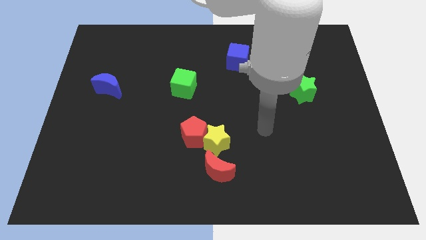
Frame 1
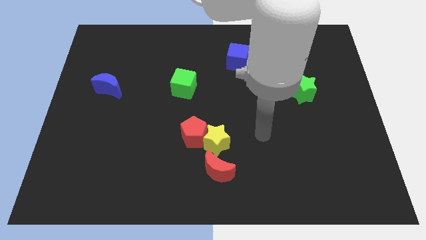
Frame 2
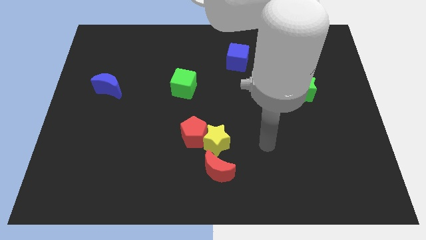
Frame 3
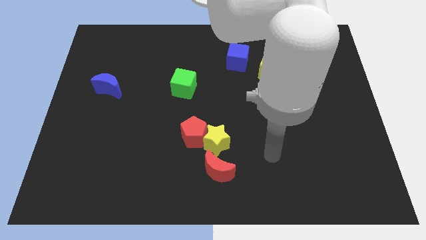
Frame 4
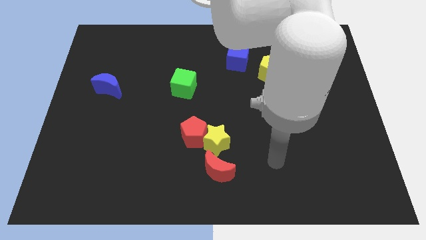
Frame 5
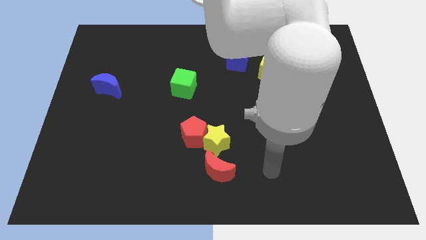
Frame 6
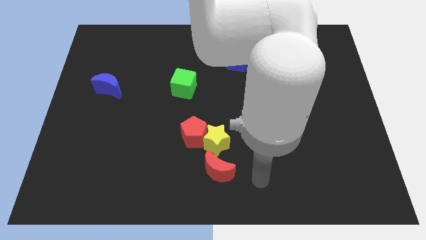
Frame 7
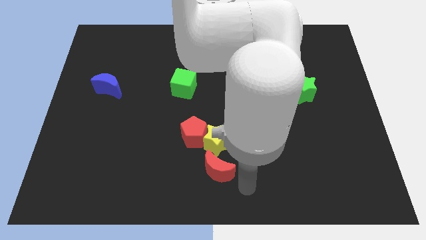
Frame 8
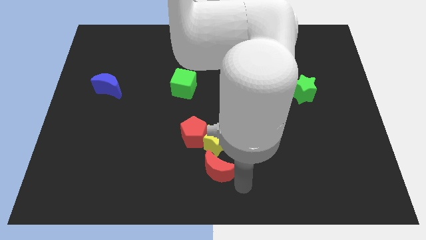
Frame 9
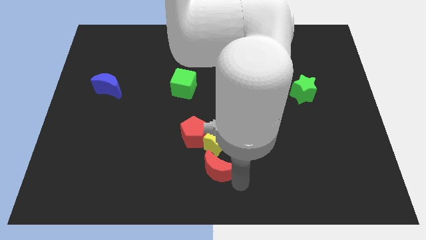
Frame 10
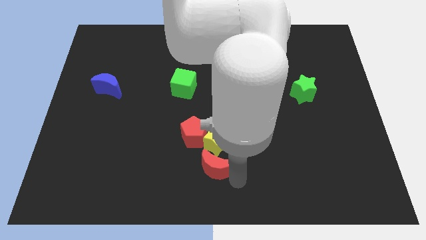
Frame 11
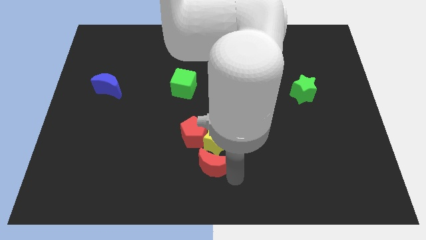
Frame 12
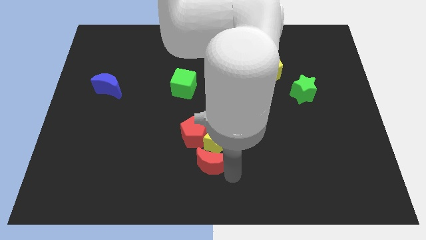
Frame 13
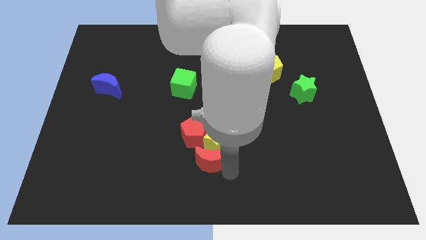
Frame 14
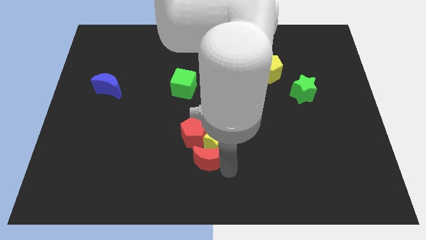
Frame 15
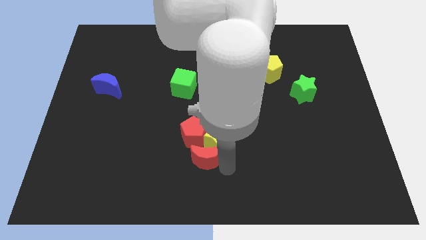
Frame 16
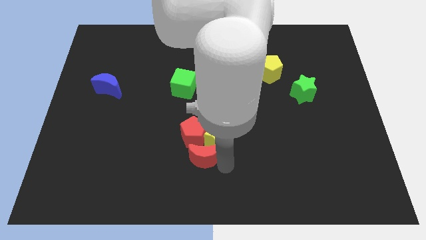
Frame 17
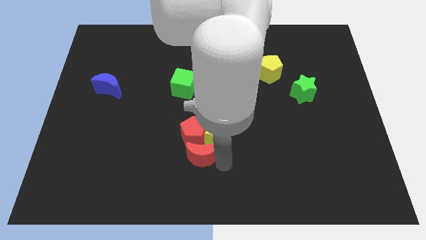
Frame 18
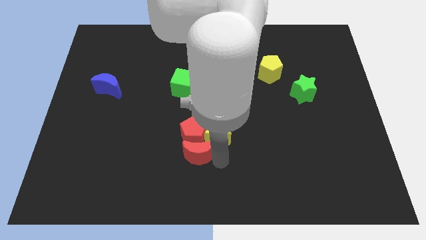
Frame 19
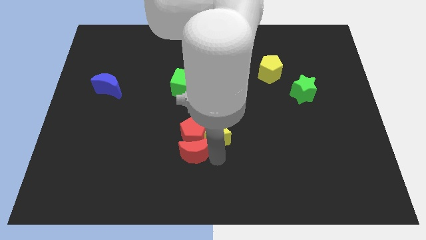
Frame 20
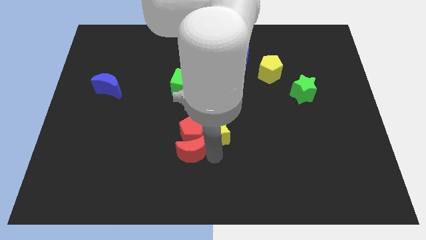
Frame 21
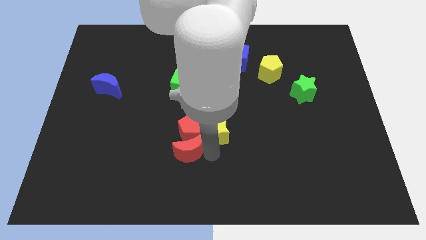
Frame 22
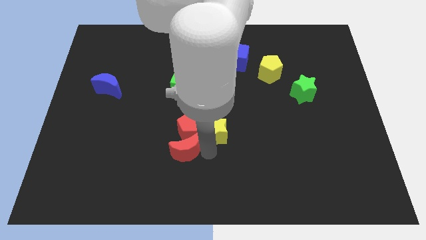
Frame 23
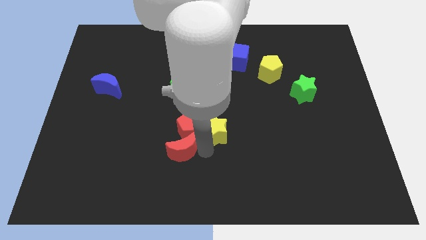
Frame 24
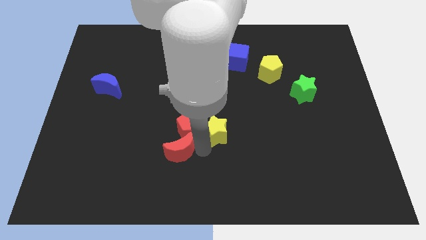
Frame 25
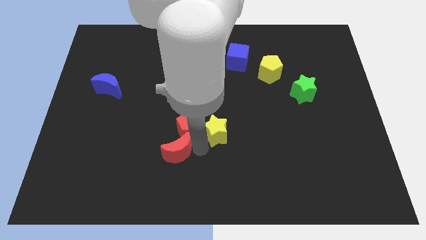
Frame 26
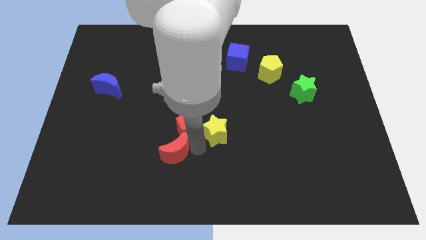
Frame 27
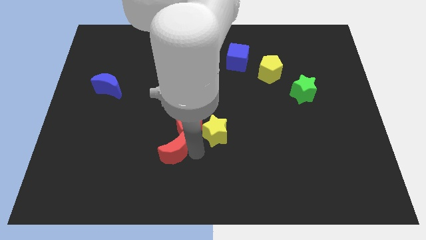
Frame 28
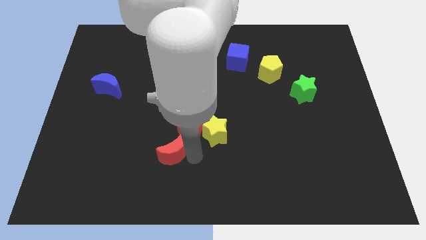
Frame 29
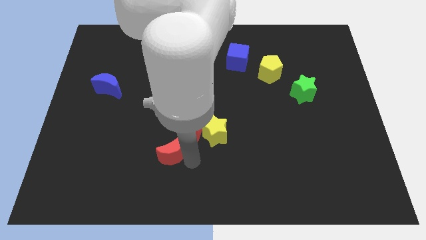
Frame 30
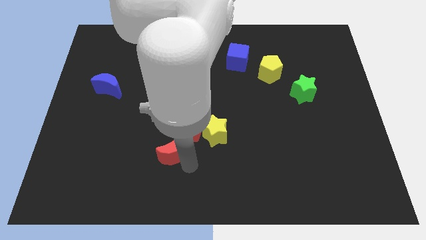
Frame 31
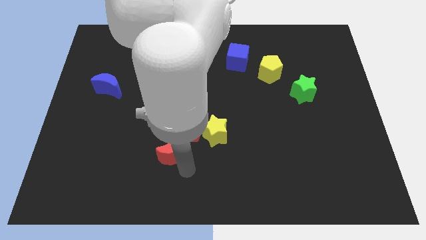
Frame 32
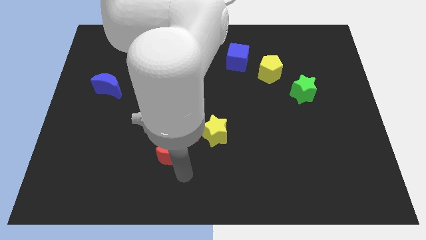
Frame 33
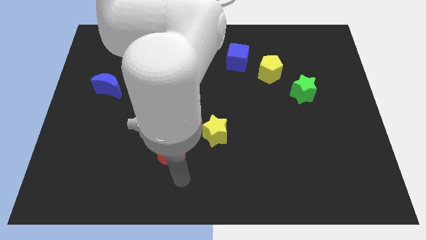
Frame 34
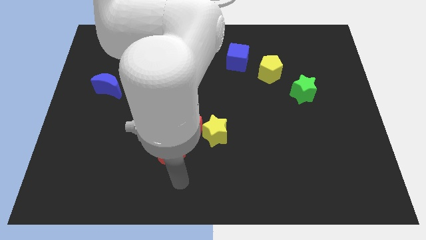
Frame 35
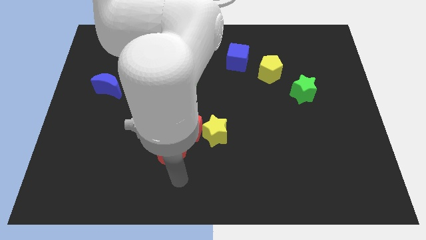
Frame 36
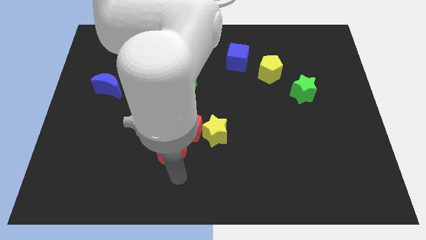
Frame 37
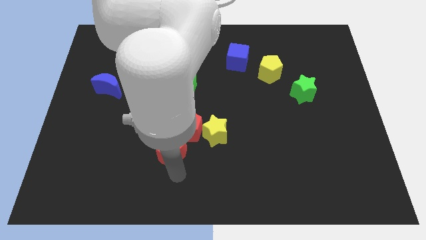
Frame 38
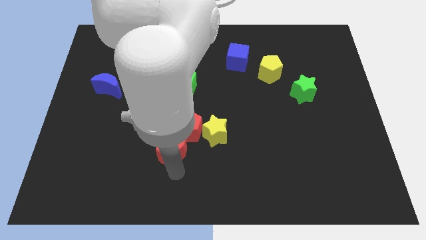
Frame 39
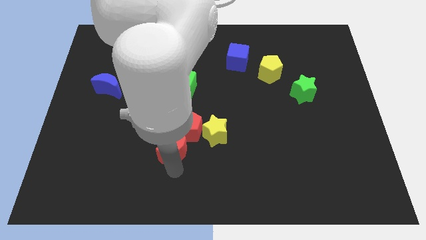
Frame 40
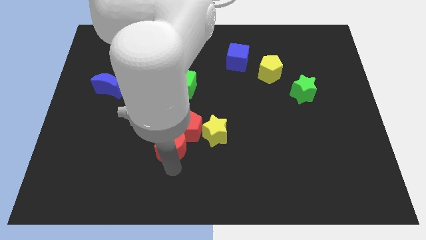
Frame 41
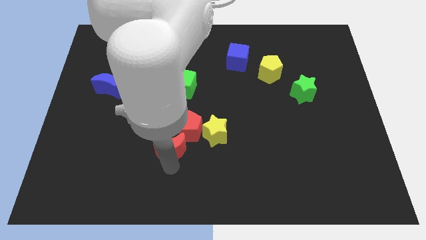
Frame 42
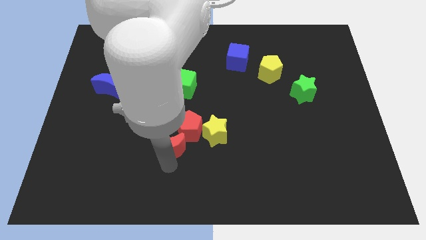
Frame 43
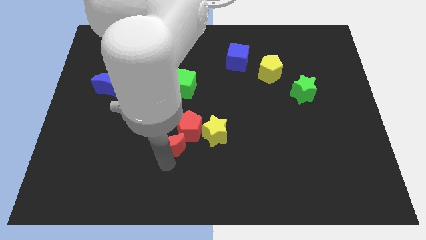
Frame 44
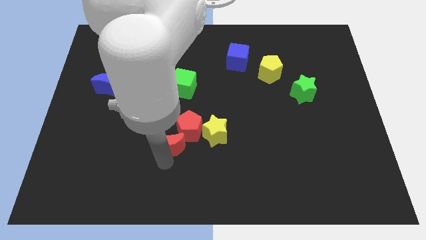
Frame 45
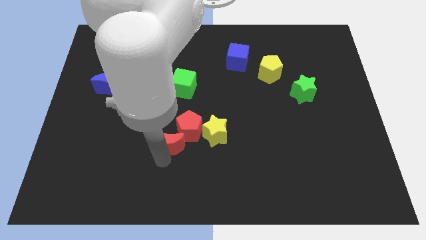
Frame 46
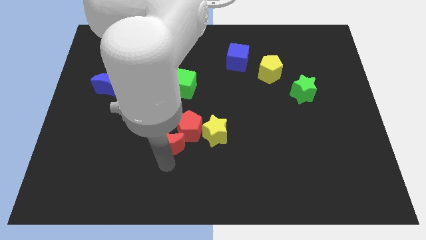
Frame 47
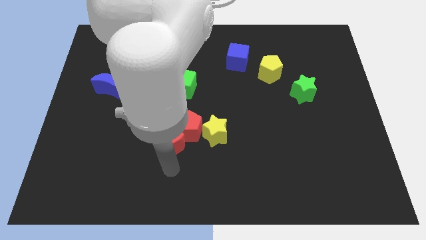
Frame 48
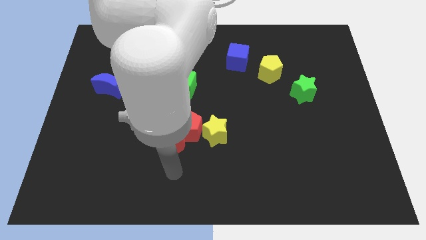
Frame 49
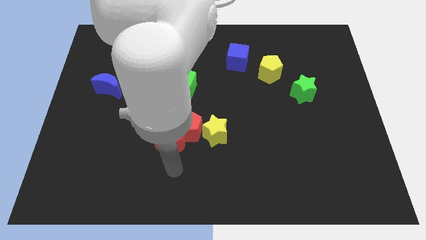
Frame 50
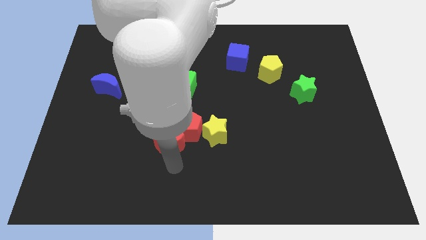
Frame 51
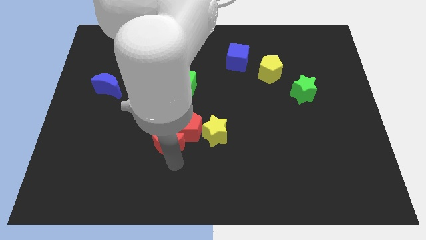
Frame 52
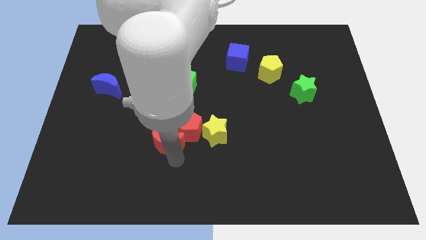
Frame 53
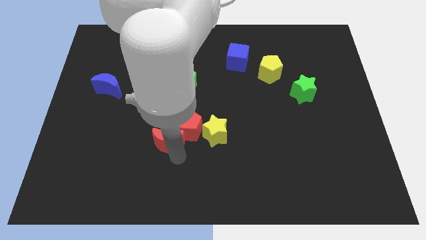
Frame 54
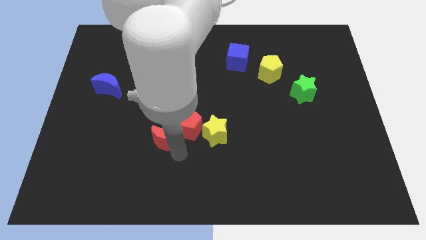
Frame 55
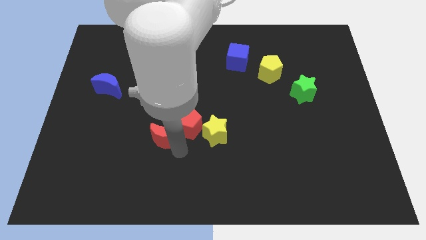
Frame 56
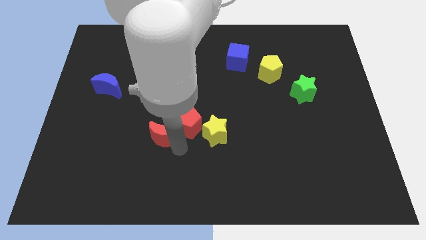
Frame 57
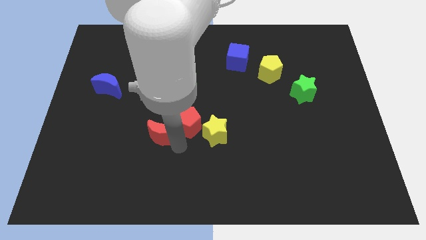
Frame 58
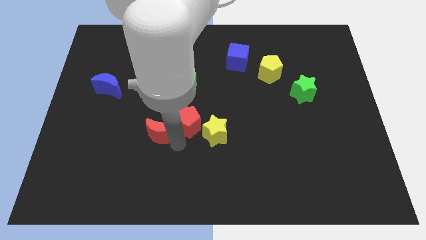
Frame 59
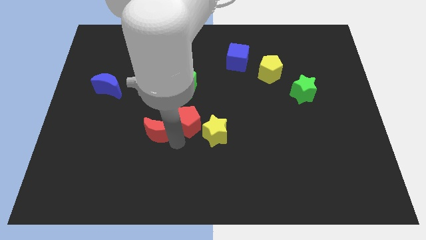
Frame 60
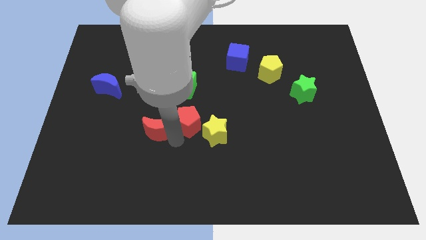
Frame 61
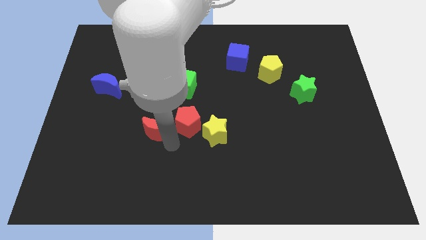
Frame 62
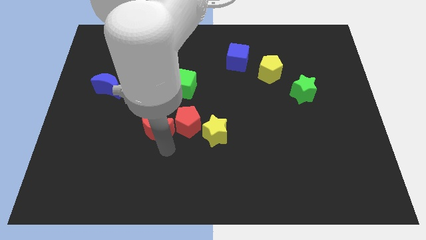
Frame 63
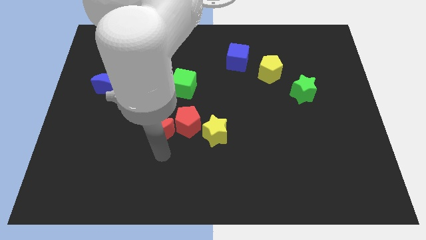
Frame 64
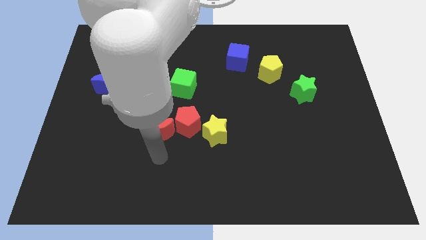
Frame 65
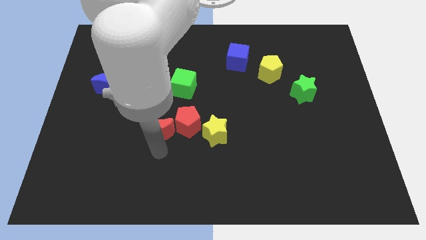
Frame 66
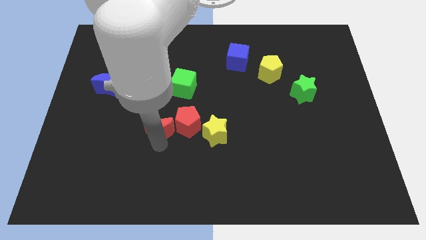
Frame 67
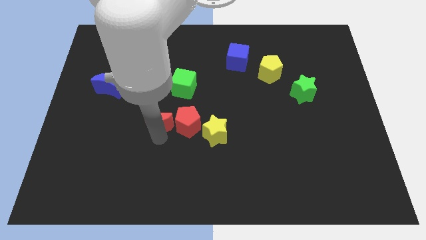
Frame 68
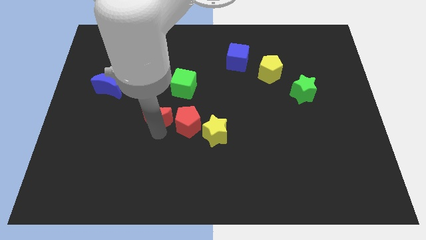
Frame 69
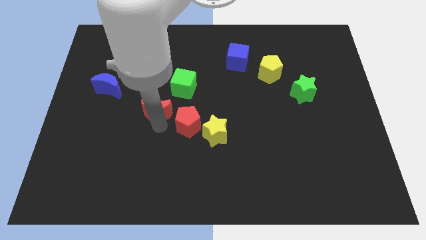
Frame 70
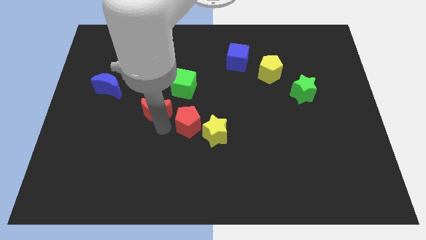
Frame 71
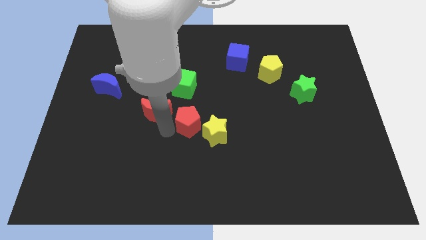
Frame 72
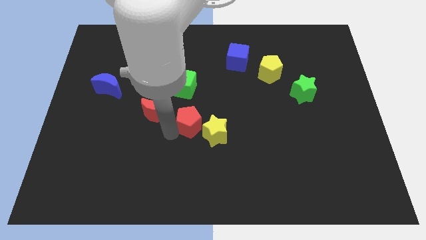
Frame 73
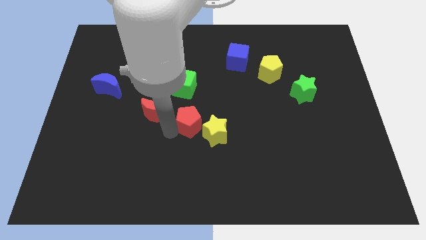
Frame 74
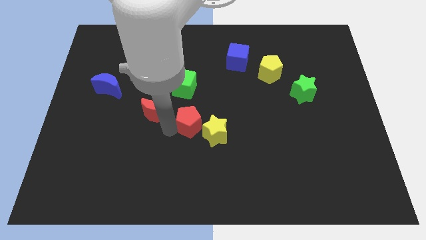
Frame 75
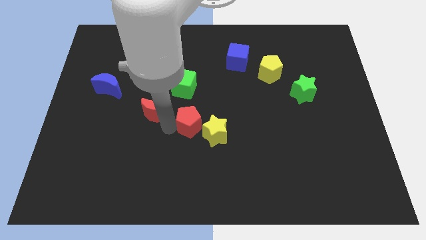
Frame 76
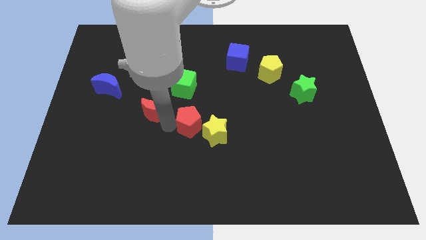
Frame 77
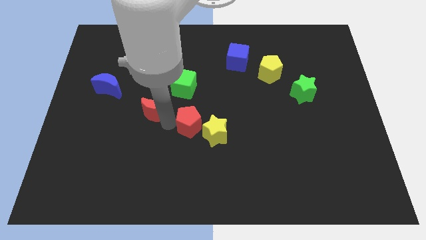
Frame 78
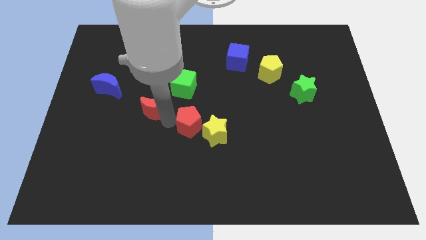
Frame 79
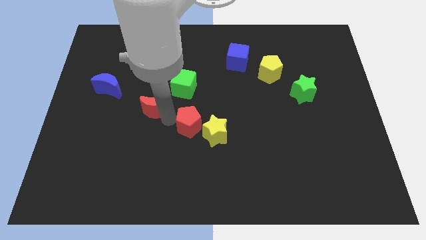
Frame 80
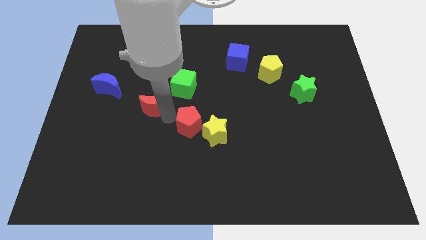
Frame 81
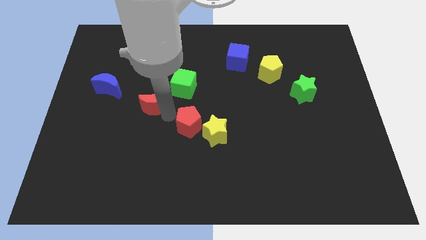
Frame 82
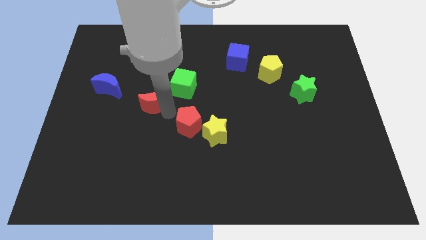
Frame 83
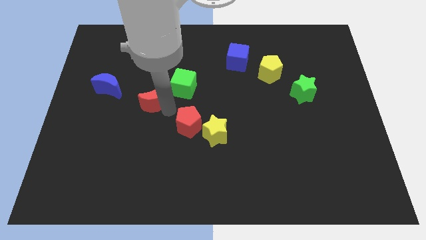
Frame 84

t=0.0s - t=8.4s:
push the red moon just left of the green cube

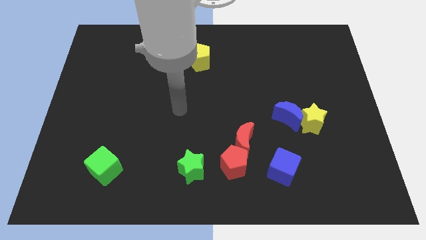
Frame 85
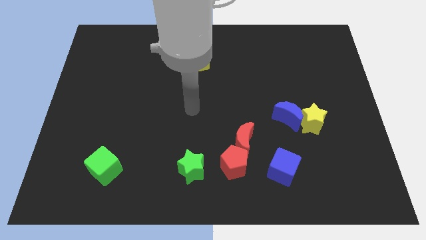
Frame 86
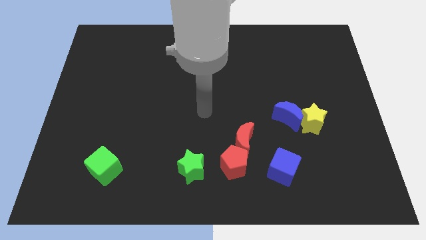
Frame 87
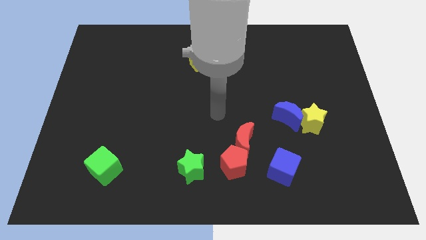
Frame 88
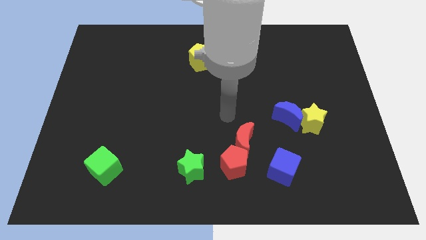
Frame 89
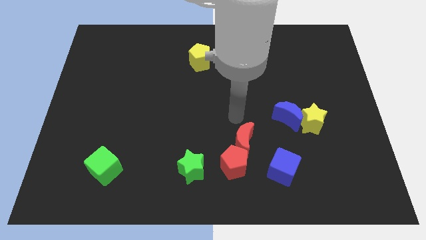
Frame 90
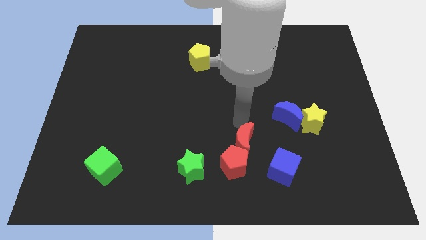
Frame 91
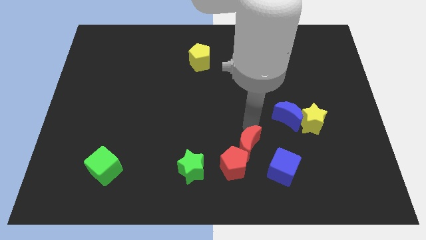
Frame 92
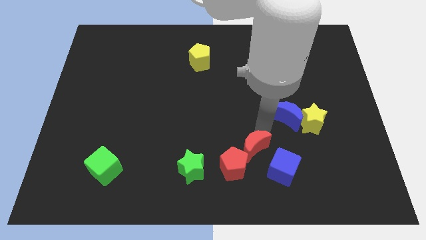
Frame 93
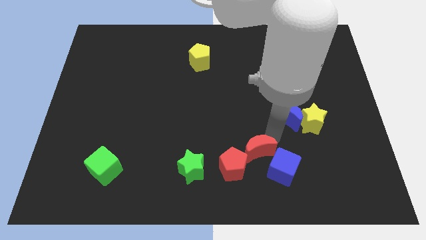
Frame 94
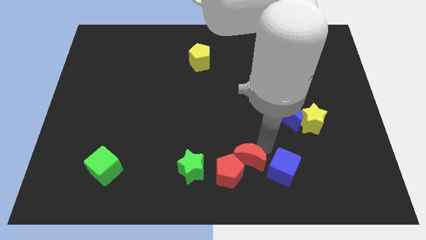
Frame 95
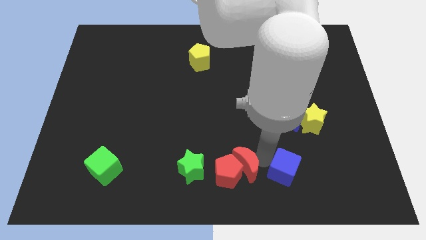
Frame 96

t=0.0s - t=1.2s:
slide the red pentagon diagonally up and to the left of the red moon
